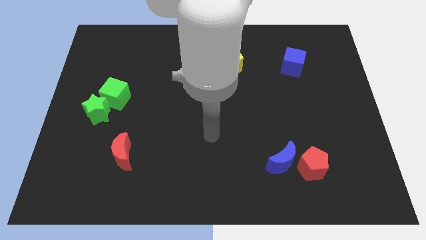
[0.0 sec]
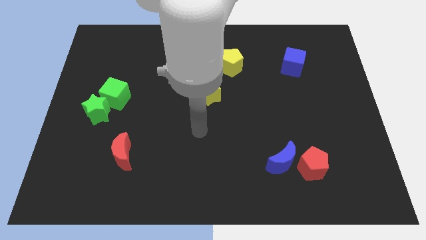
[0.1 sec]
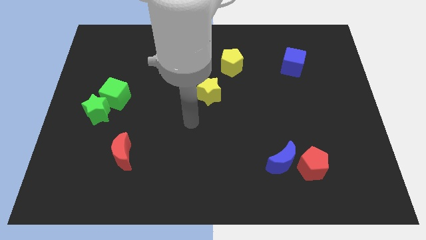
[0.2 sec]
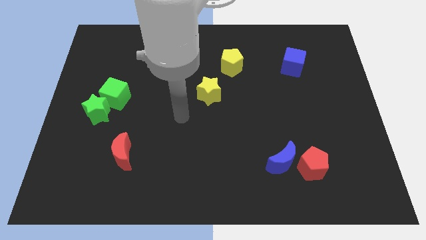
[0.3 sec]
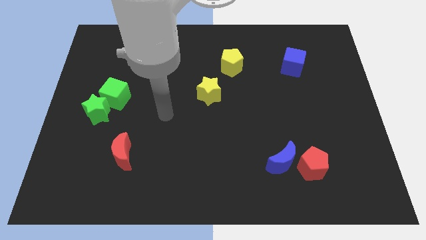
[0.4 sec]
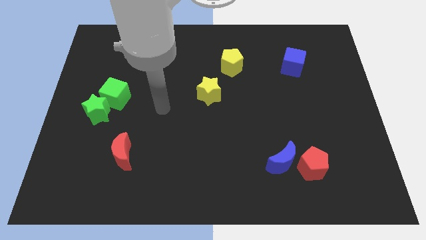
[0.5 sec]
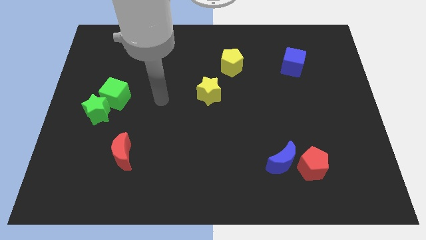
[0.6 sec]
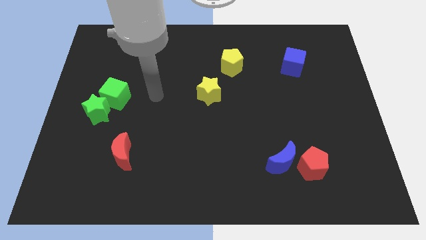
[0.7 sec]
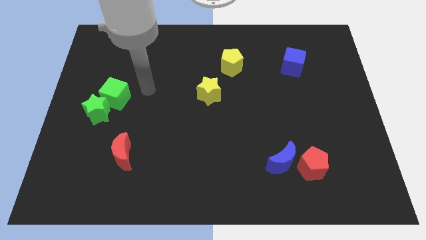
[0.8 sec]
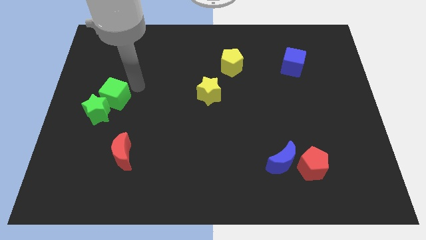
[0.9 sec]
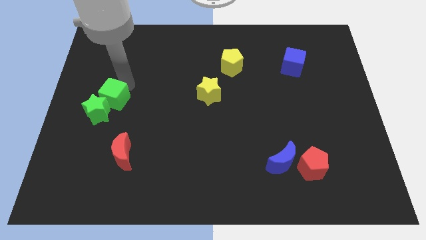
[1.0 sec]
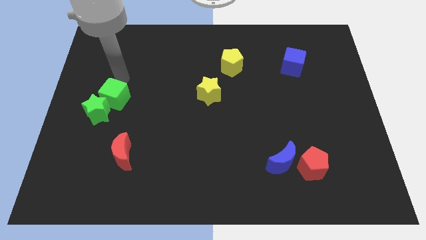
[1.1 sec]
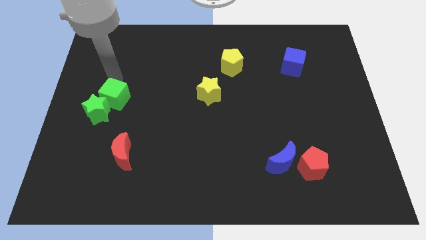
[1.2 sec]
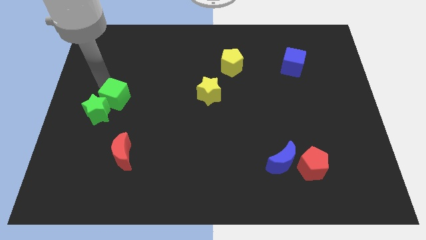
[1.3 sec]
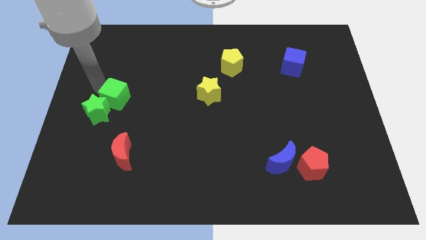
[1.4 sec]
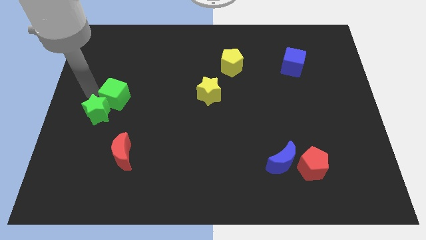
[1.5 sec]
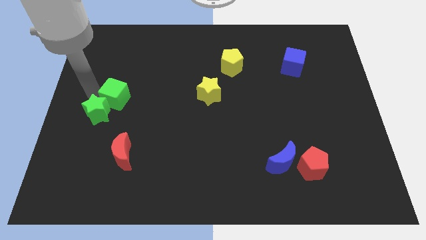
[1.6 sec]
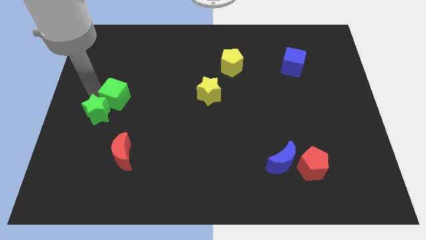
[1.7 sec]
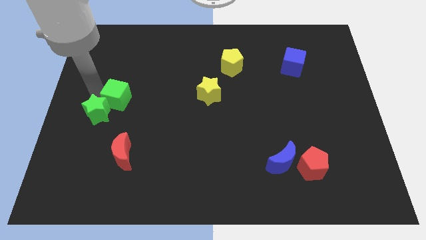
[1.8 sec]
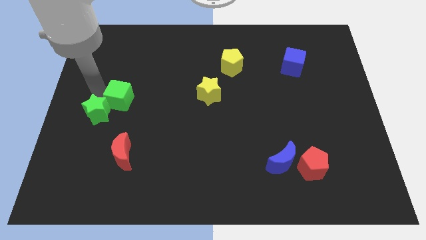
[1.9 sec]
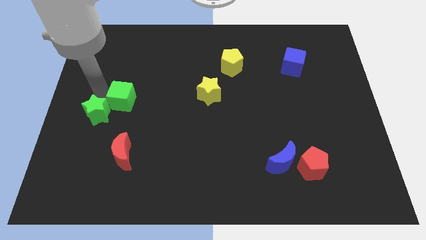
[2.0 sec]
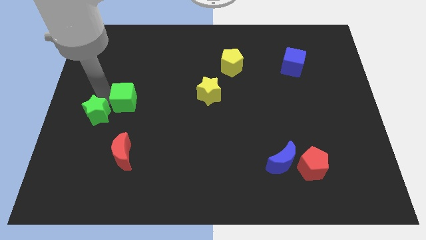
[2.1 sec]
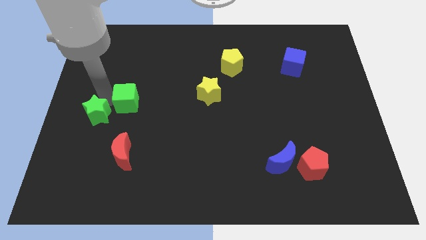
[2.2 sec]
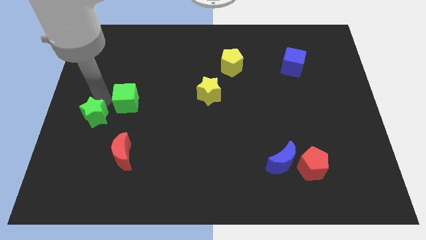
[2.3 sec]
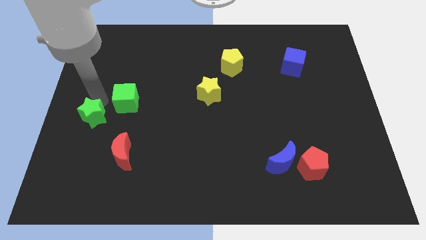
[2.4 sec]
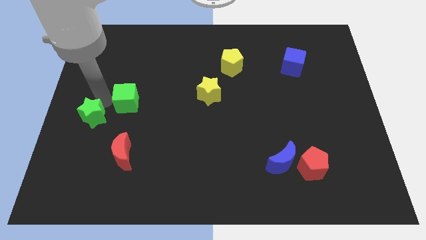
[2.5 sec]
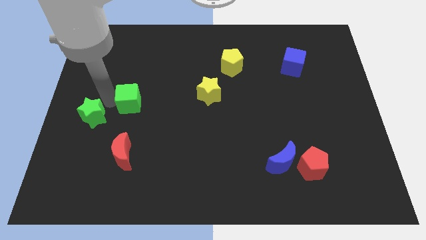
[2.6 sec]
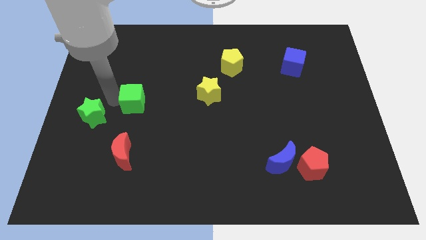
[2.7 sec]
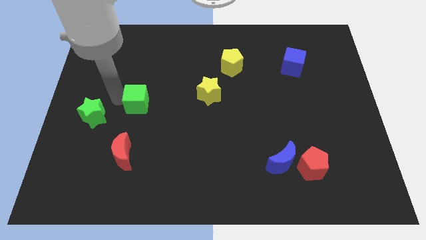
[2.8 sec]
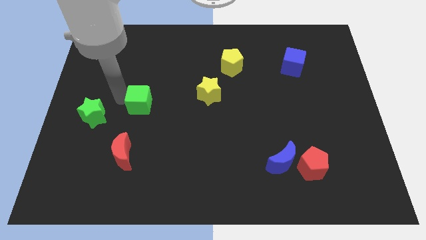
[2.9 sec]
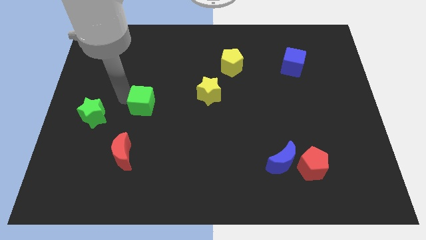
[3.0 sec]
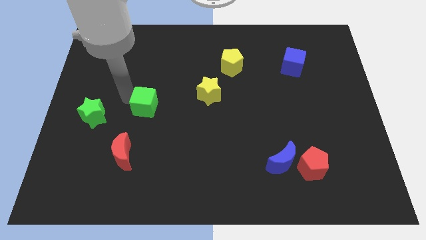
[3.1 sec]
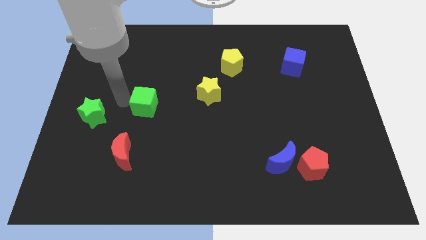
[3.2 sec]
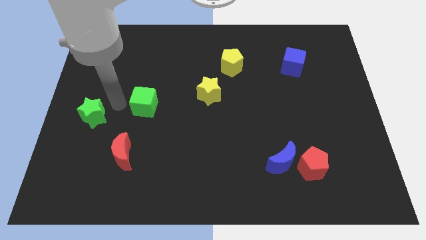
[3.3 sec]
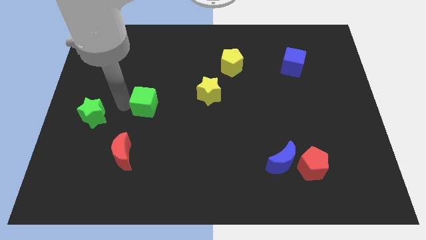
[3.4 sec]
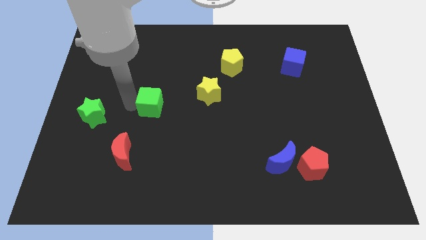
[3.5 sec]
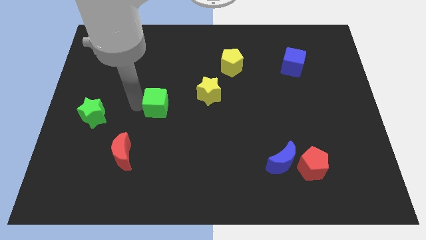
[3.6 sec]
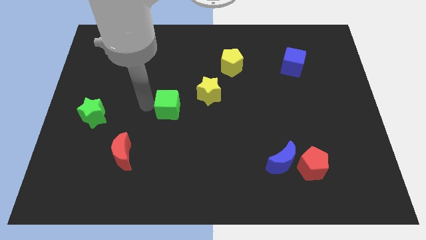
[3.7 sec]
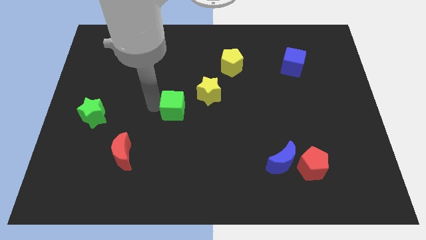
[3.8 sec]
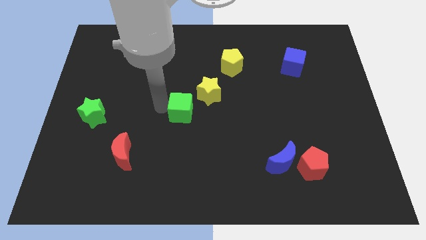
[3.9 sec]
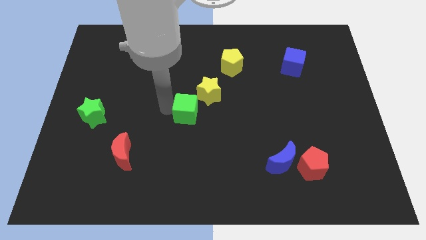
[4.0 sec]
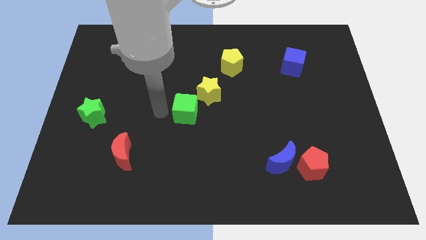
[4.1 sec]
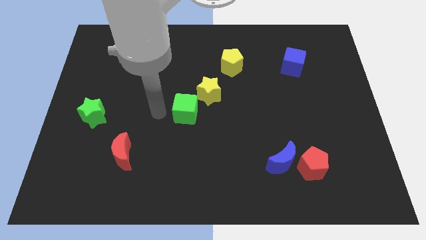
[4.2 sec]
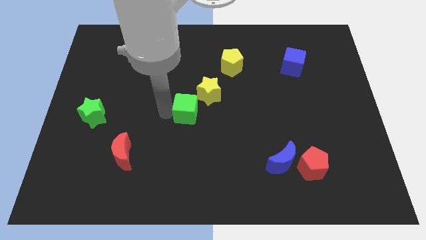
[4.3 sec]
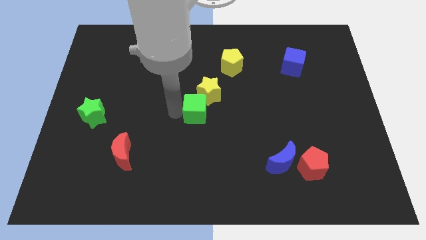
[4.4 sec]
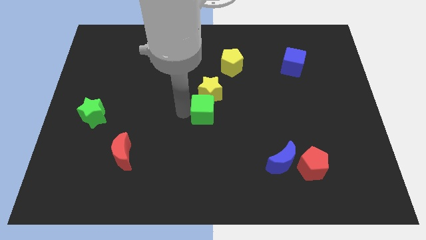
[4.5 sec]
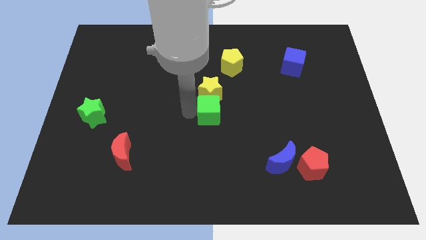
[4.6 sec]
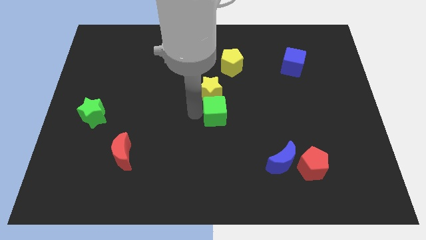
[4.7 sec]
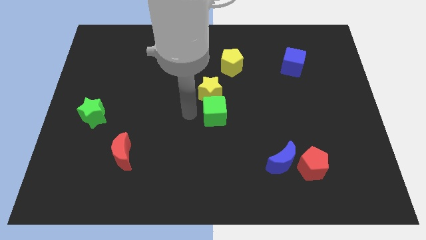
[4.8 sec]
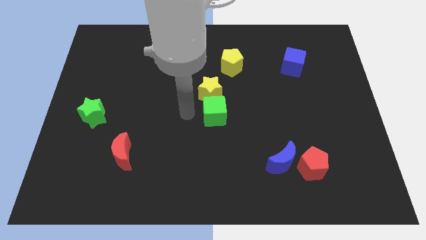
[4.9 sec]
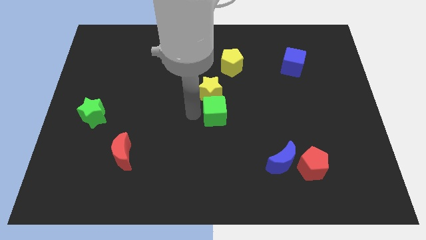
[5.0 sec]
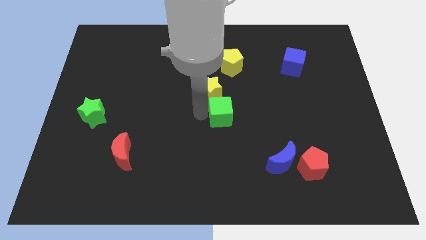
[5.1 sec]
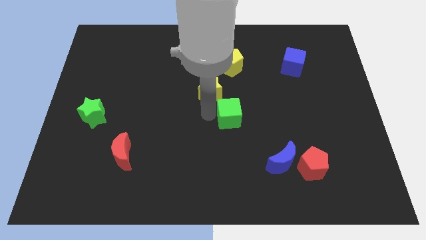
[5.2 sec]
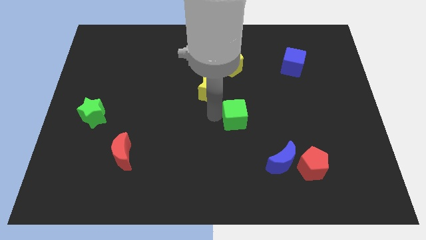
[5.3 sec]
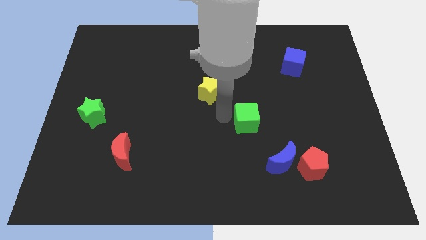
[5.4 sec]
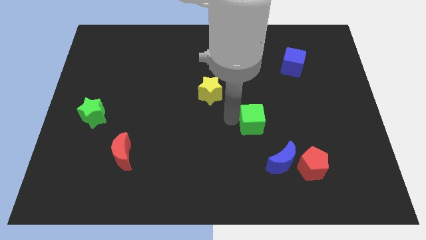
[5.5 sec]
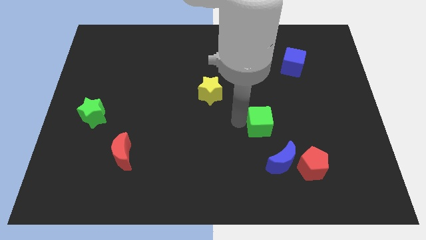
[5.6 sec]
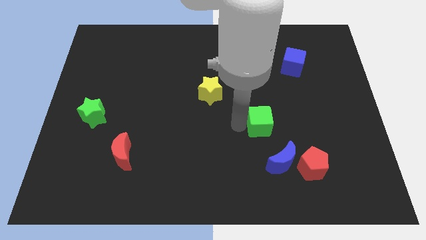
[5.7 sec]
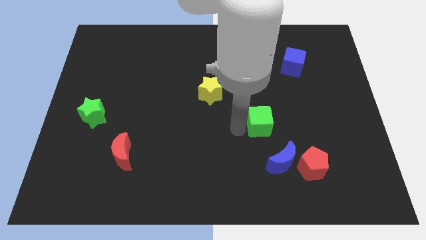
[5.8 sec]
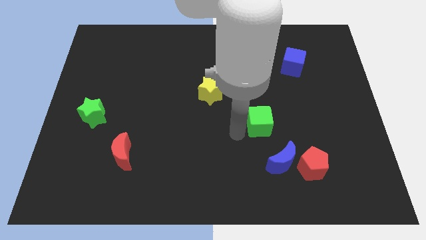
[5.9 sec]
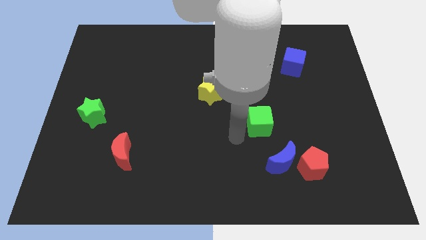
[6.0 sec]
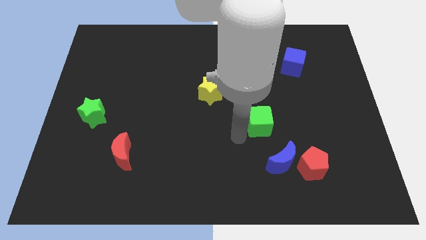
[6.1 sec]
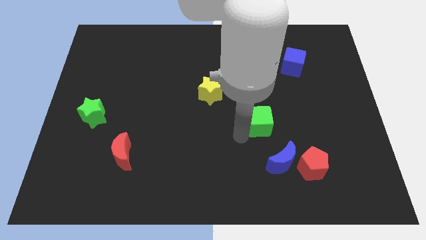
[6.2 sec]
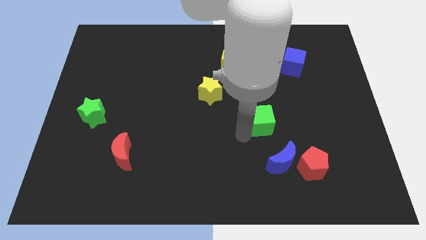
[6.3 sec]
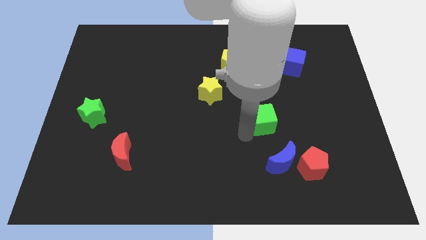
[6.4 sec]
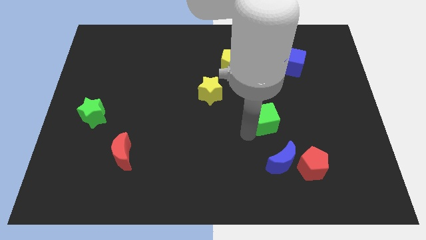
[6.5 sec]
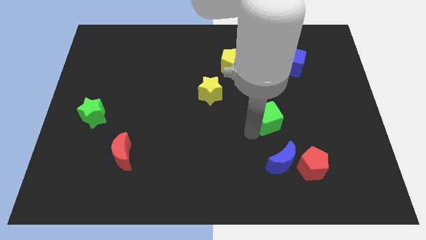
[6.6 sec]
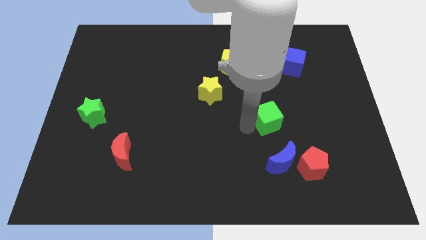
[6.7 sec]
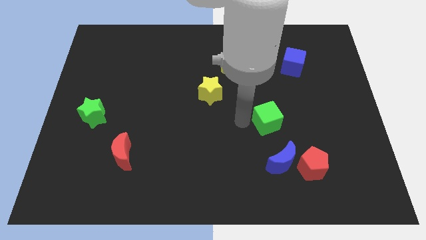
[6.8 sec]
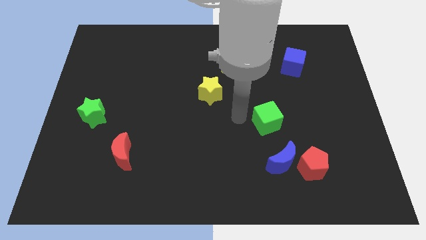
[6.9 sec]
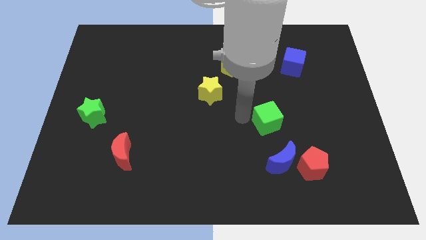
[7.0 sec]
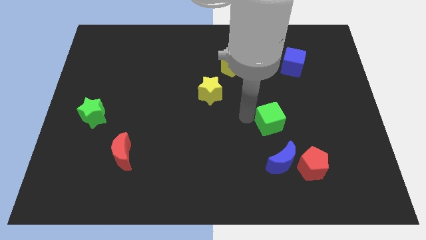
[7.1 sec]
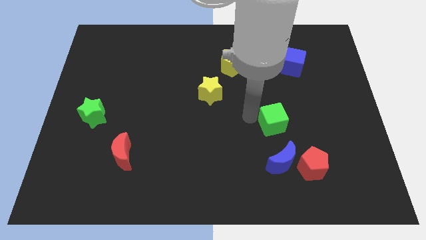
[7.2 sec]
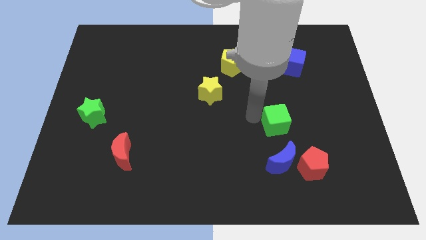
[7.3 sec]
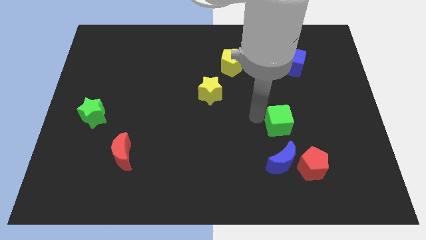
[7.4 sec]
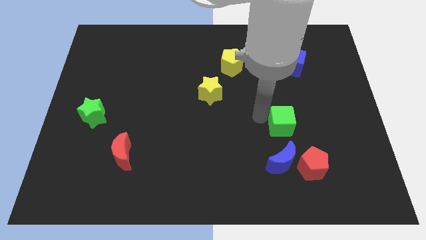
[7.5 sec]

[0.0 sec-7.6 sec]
slide the green cube to the top side of the red pentagon

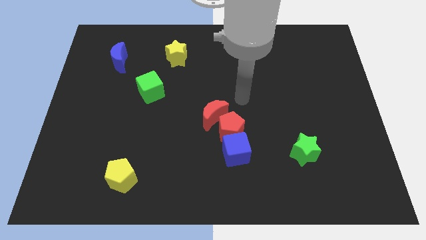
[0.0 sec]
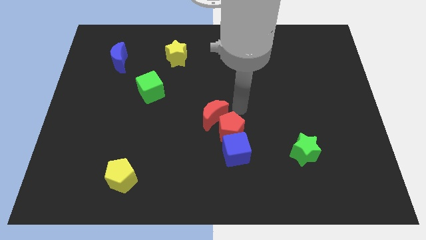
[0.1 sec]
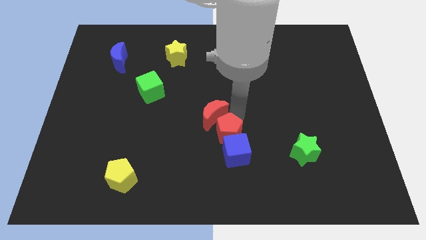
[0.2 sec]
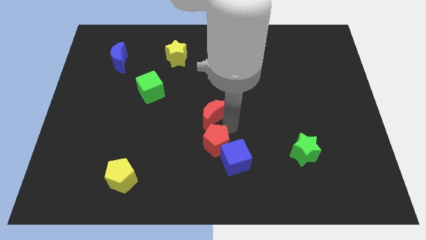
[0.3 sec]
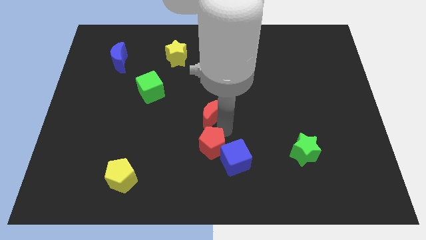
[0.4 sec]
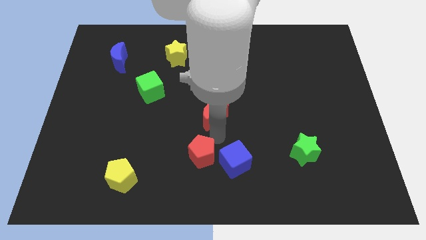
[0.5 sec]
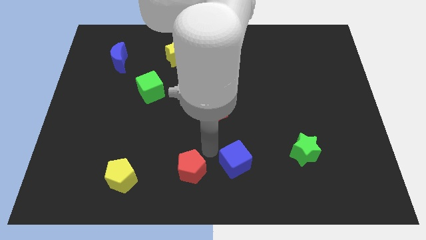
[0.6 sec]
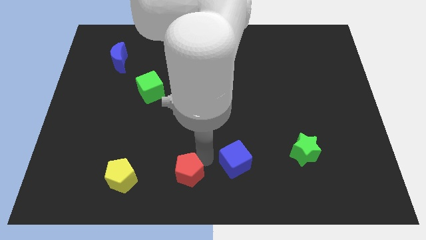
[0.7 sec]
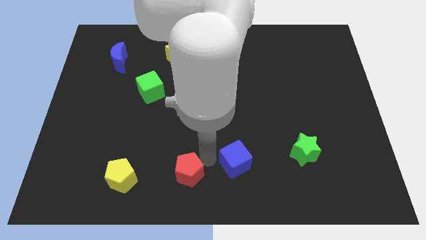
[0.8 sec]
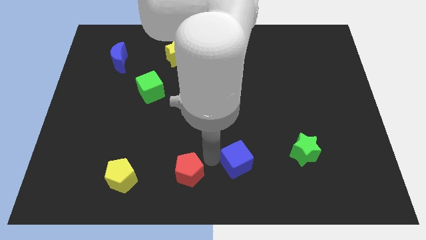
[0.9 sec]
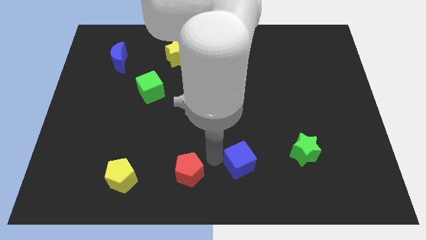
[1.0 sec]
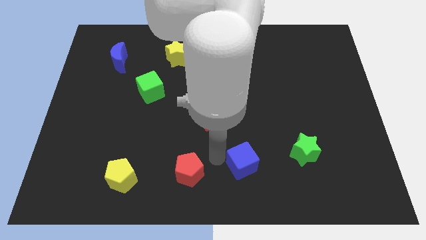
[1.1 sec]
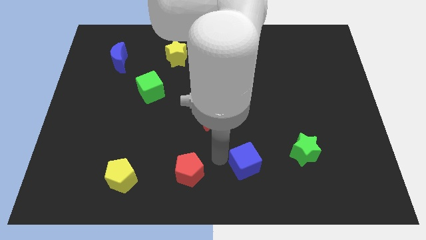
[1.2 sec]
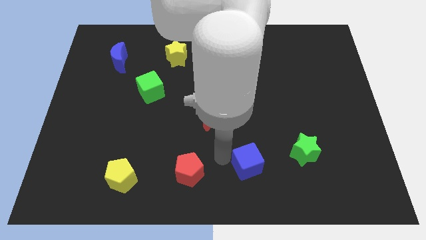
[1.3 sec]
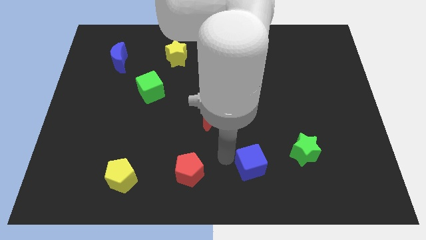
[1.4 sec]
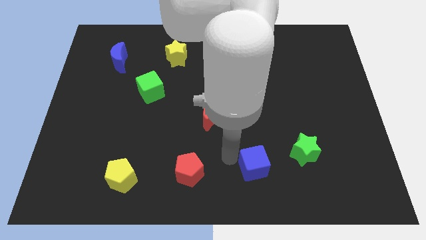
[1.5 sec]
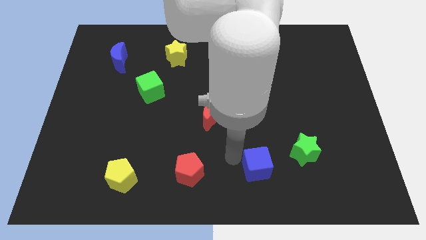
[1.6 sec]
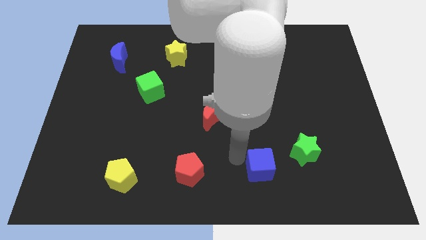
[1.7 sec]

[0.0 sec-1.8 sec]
move the blue cube diagonally down and to the left of the green star
